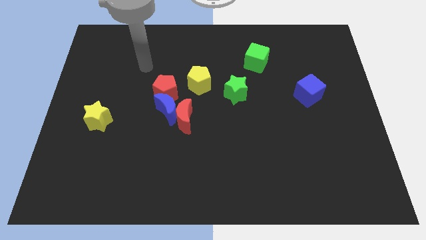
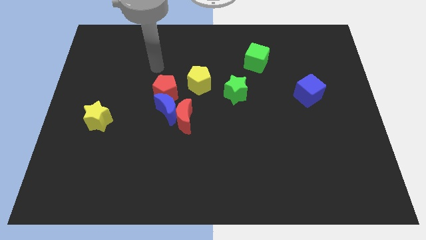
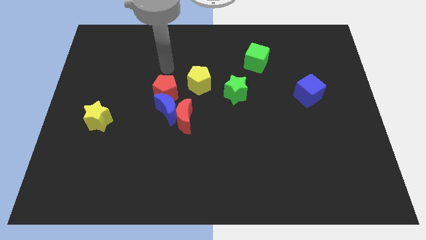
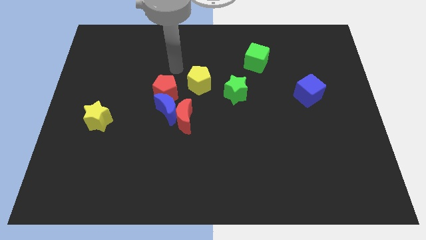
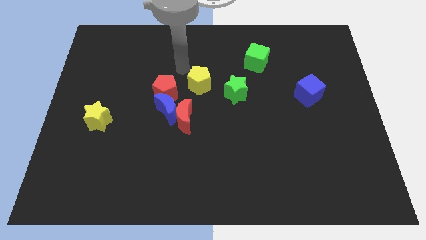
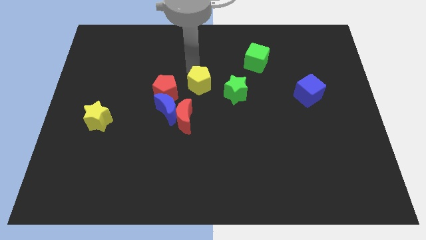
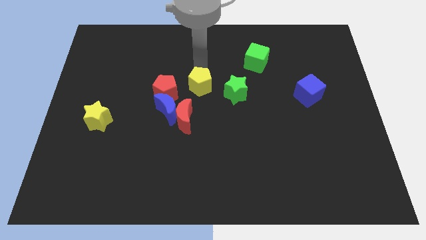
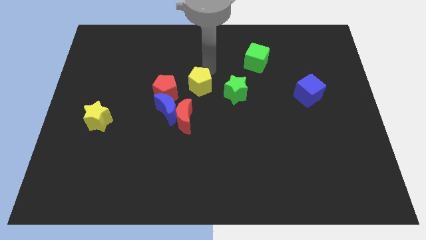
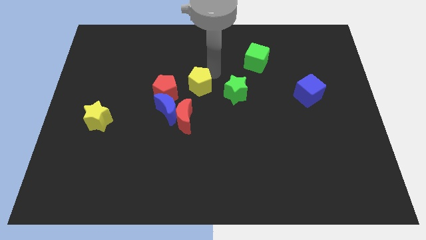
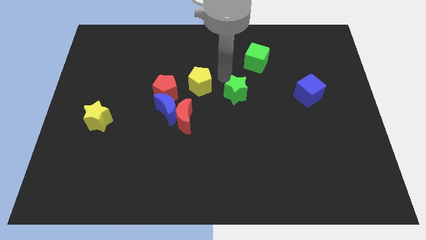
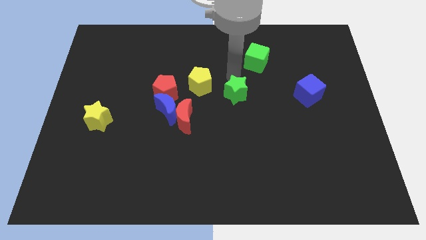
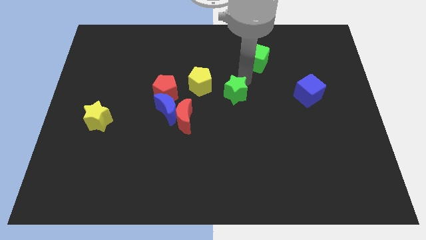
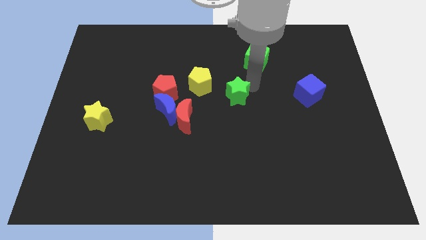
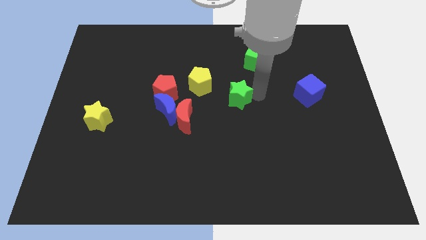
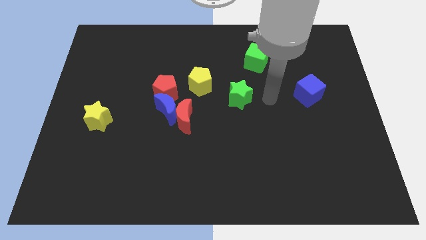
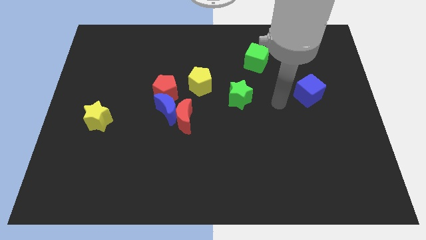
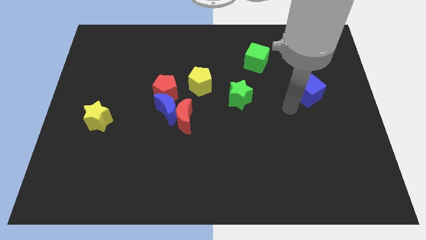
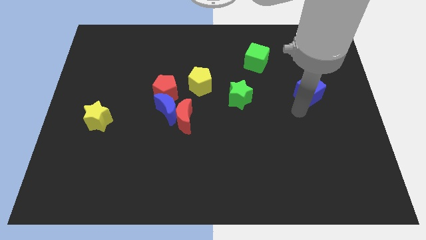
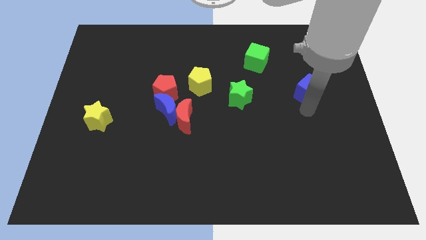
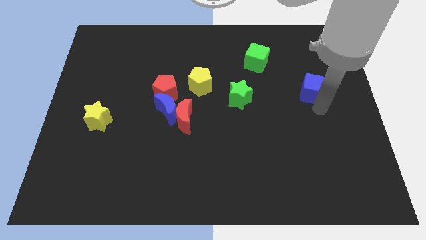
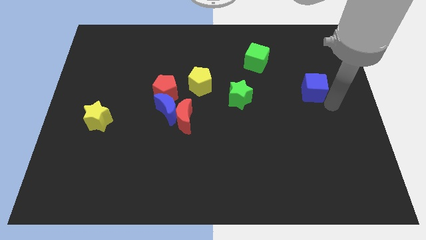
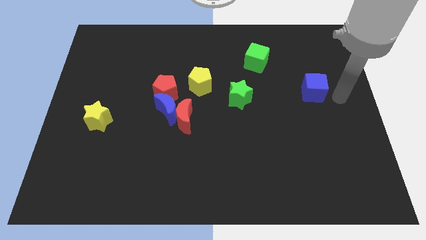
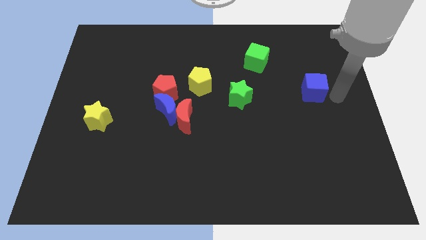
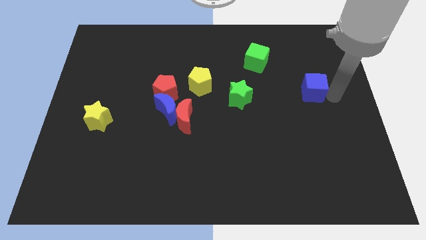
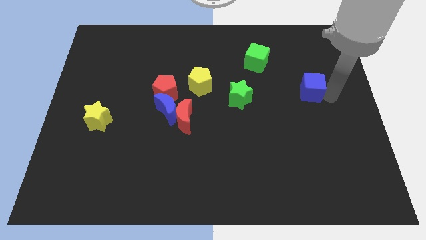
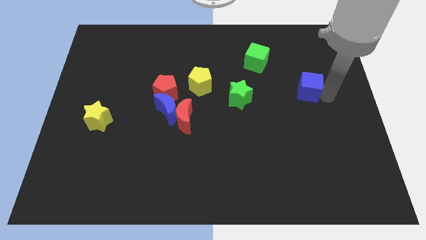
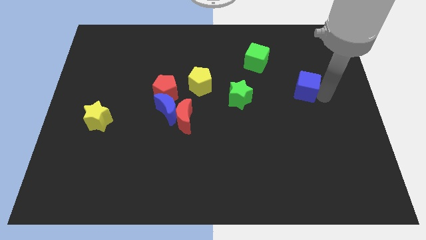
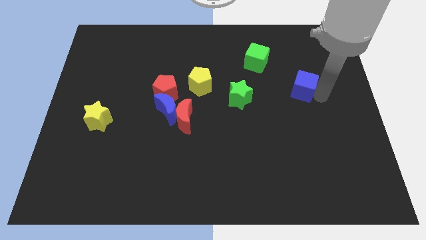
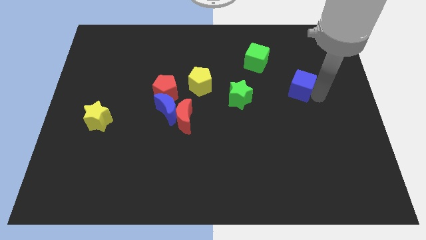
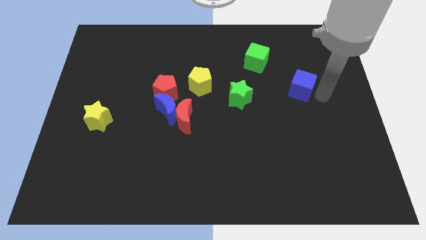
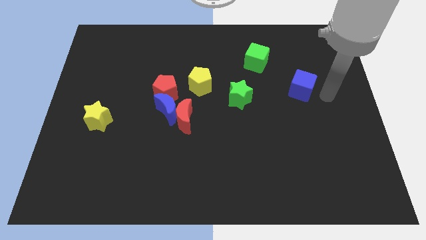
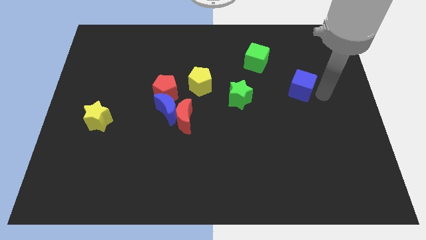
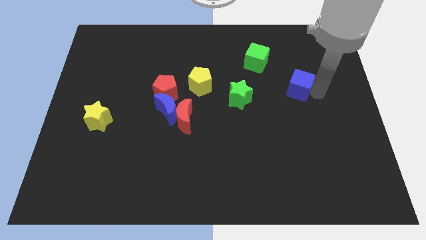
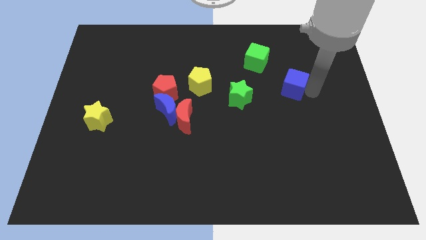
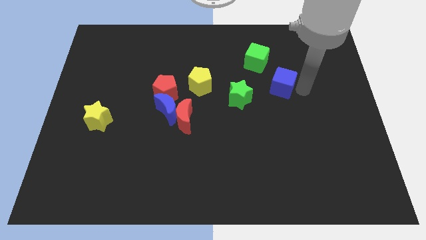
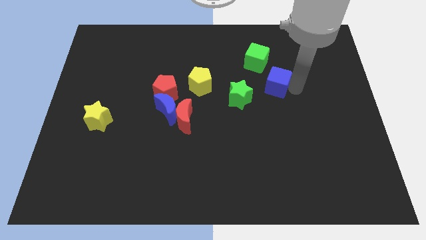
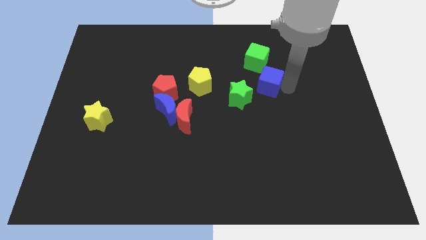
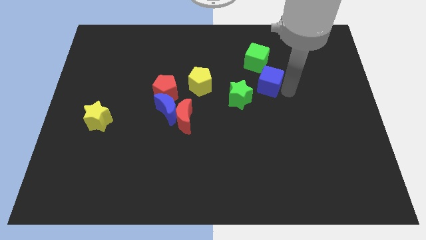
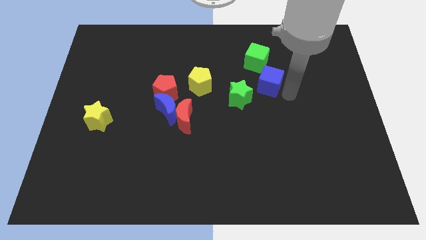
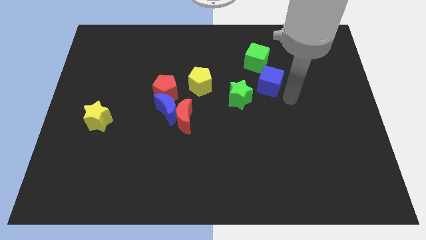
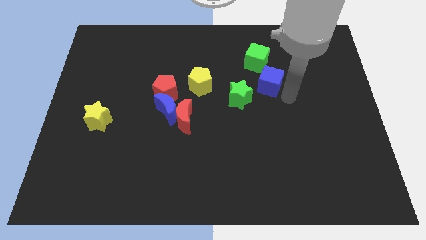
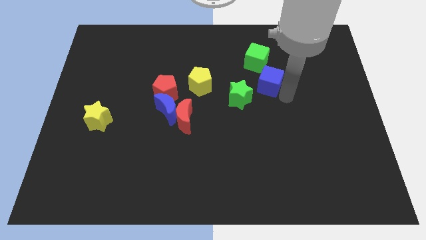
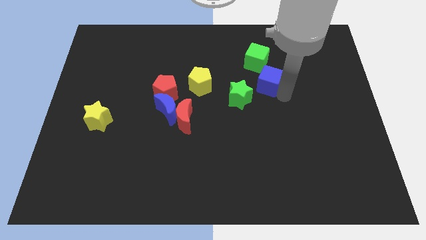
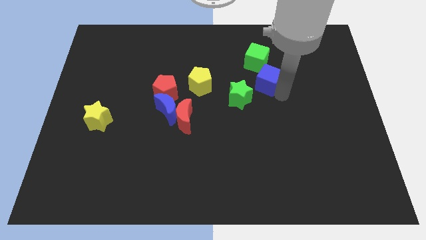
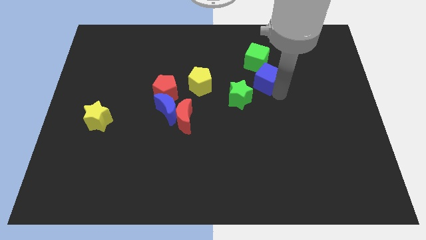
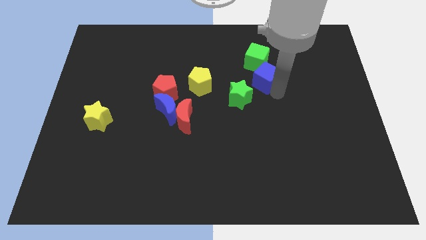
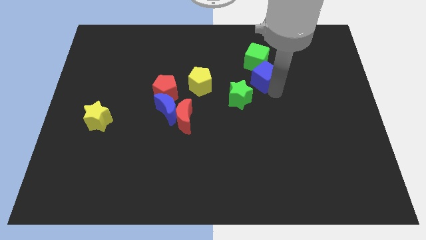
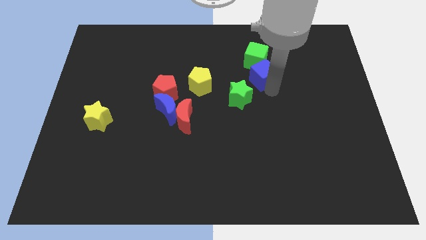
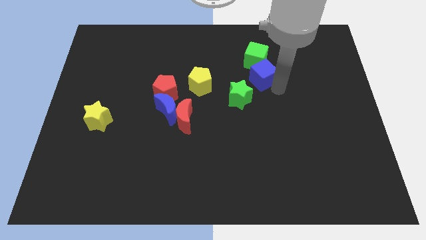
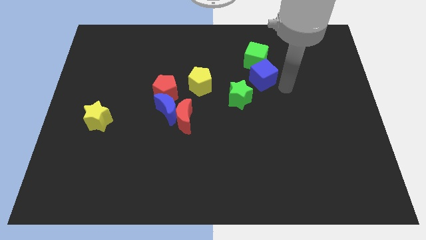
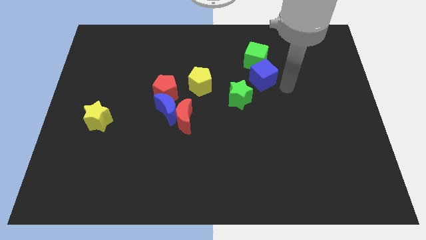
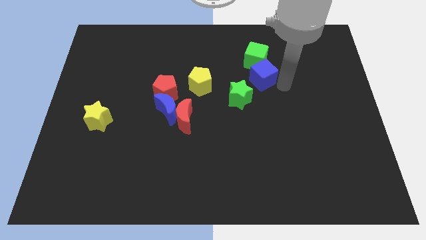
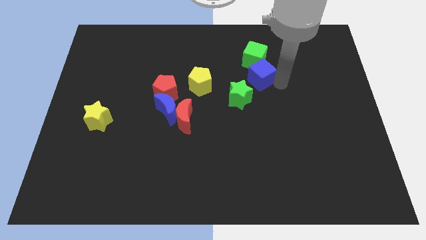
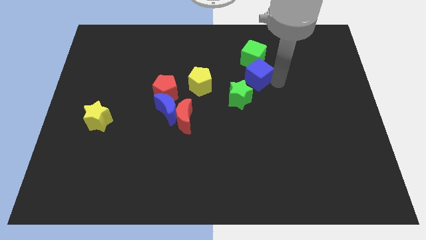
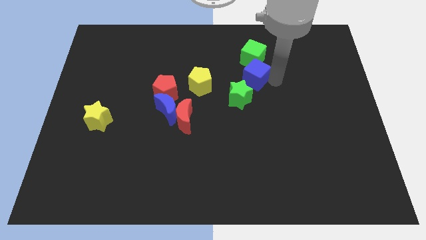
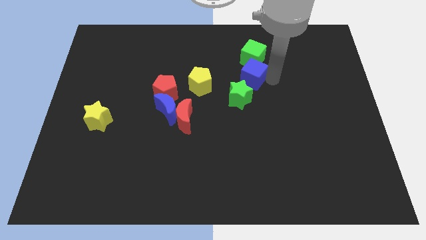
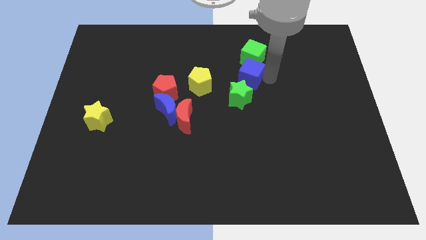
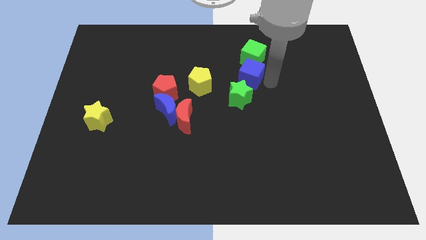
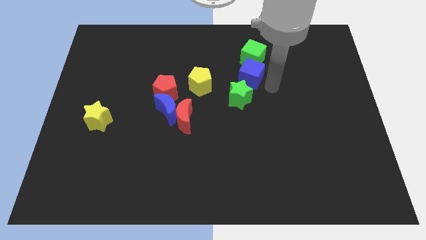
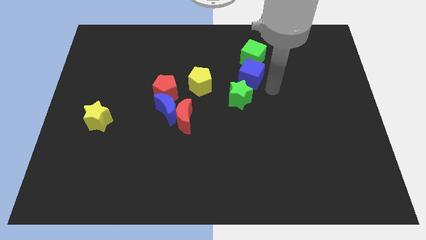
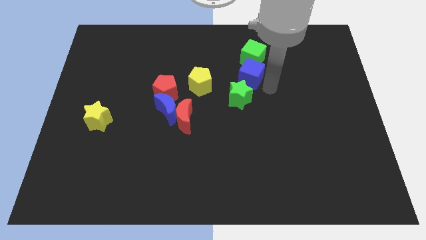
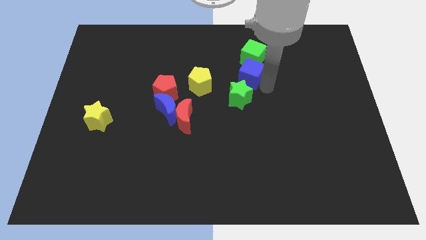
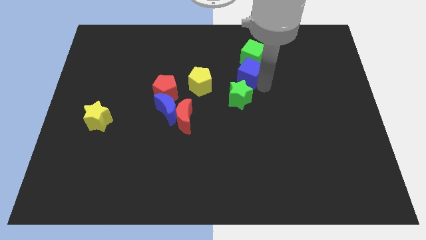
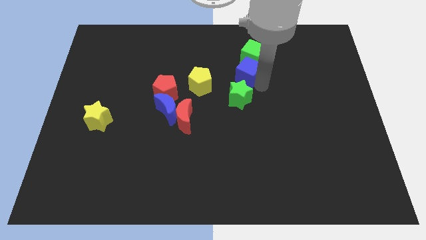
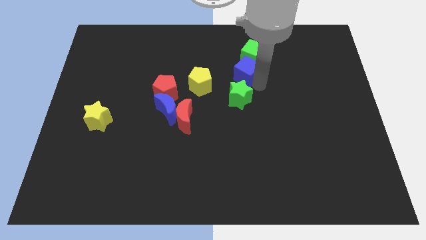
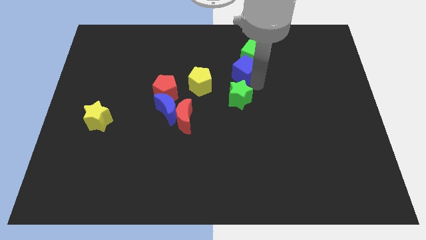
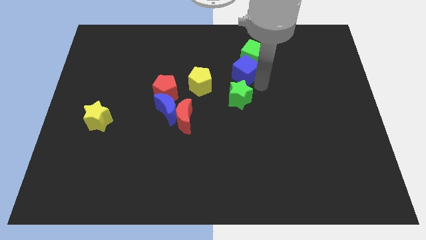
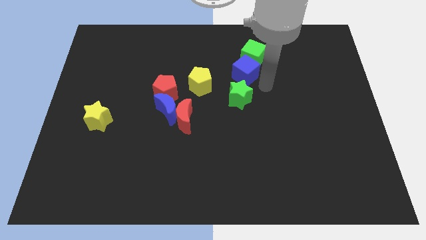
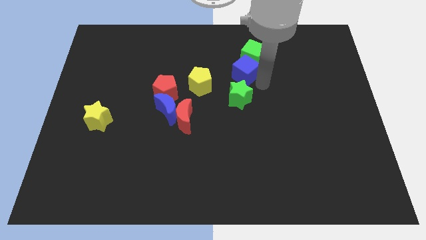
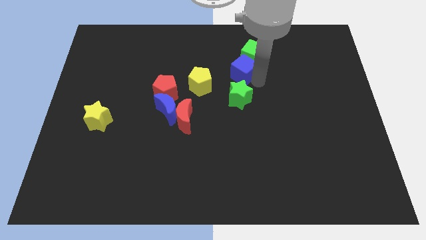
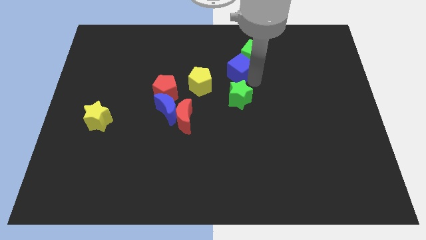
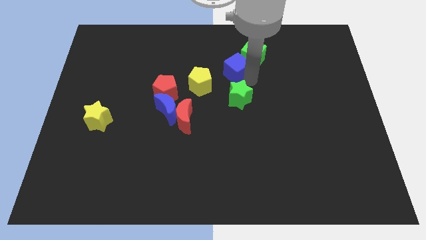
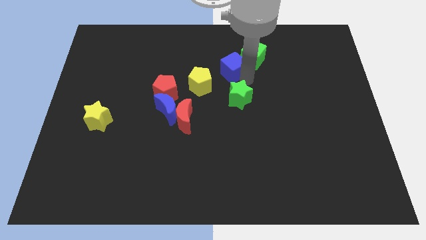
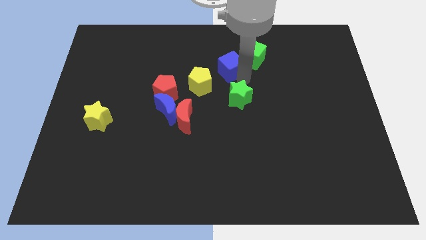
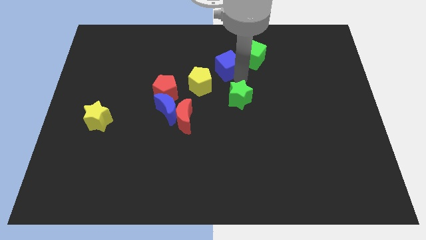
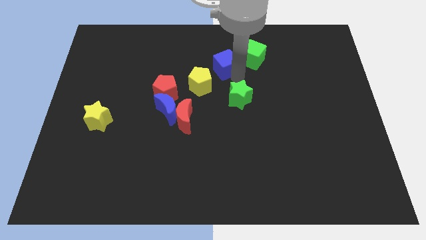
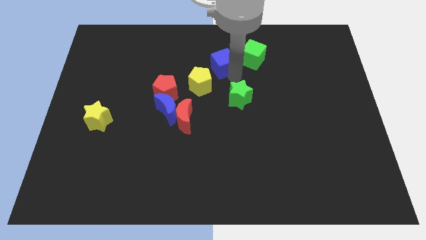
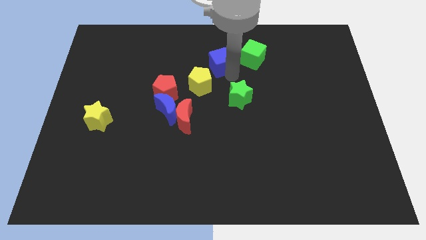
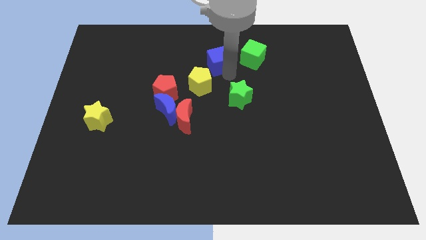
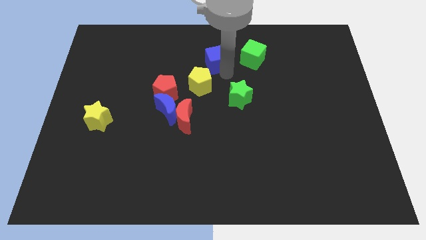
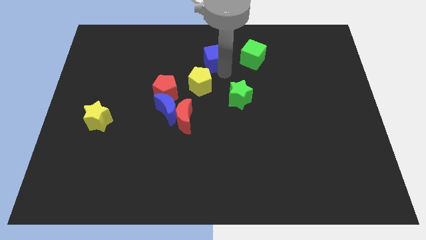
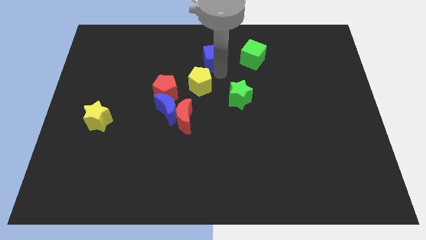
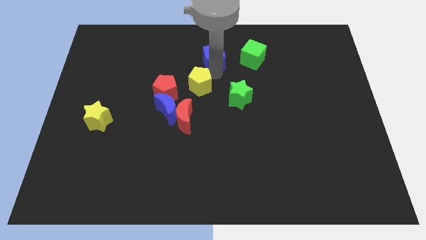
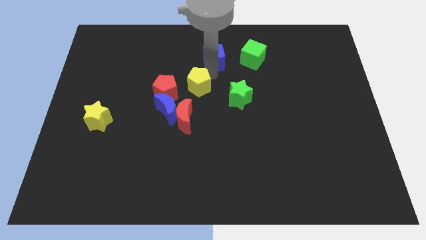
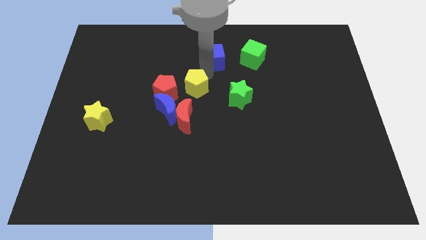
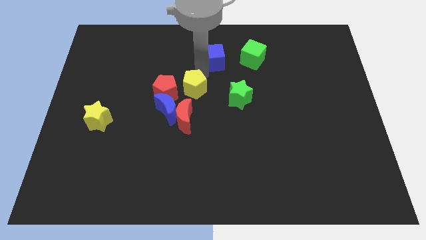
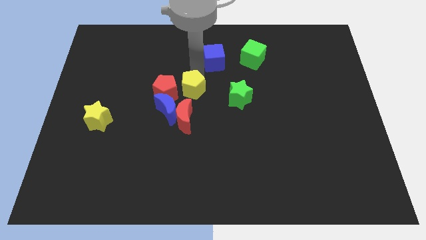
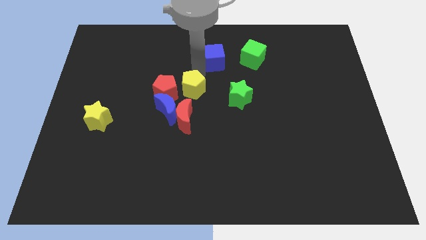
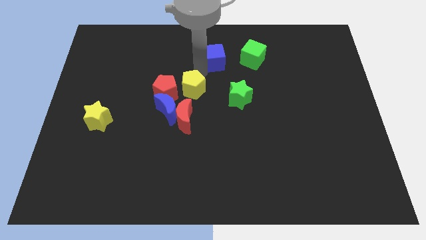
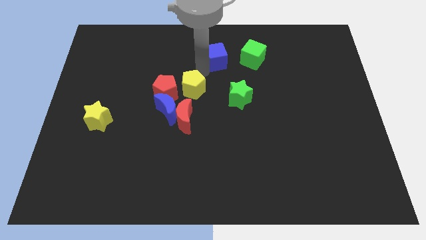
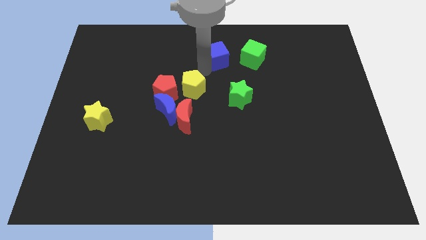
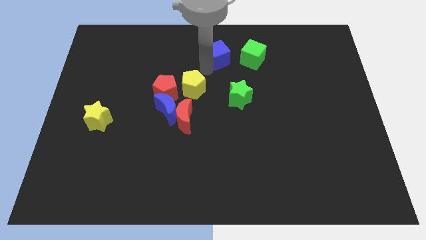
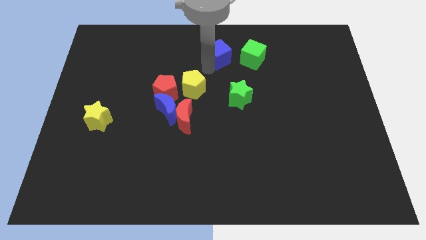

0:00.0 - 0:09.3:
push the blue cube to the towards your base
